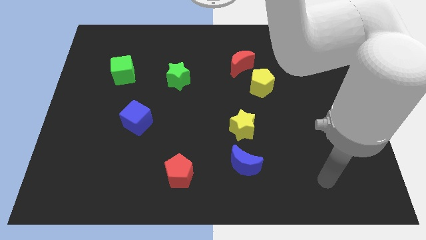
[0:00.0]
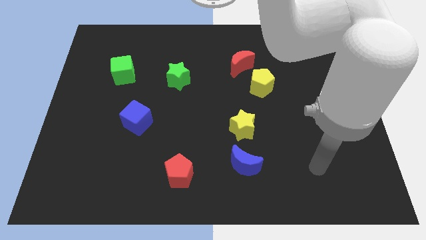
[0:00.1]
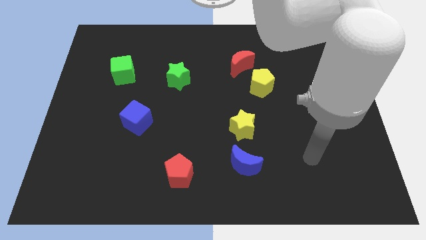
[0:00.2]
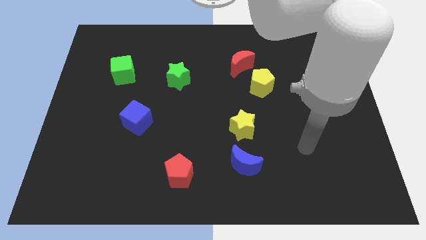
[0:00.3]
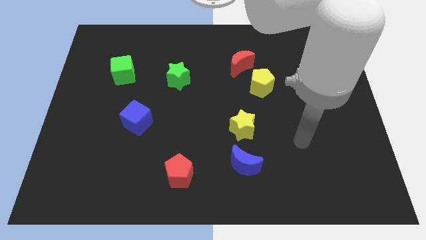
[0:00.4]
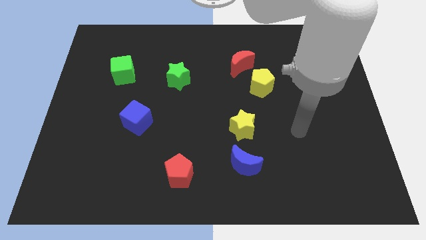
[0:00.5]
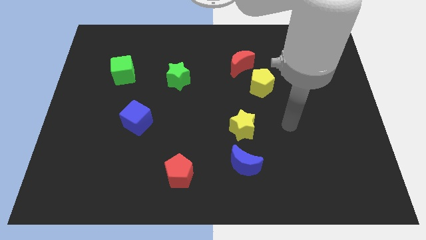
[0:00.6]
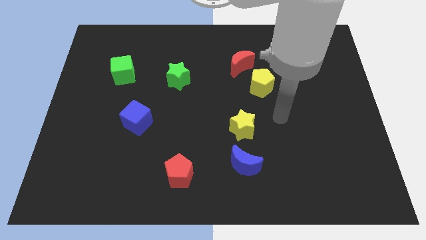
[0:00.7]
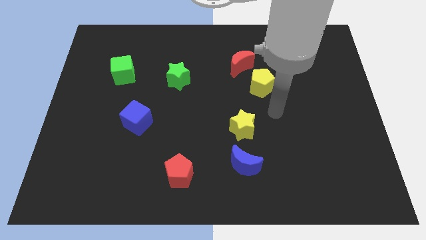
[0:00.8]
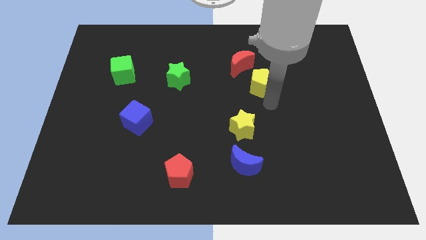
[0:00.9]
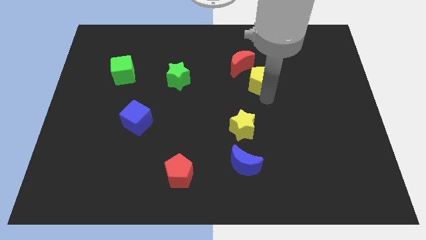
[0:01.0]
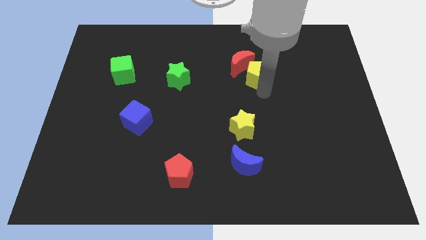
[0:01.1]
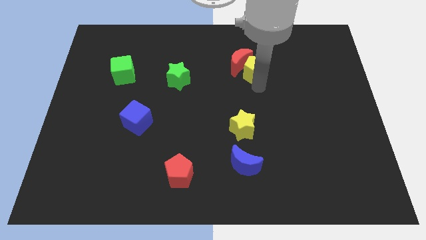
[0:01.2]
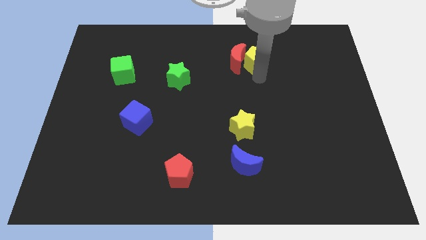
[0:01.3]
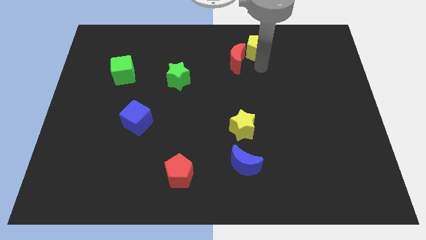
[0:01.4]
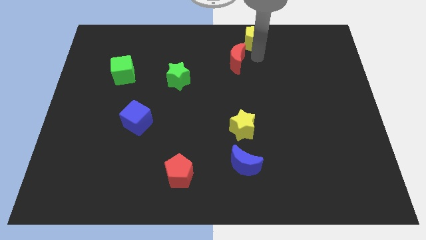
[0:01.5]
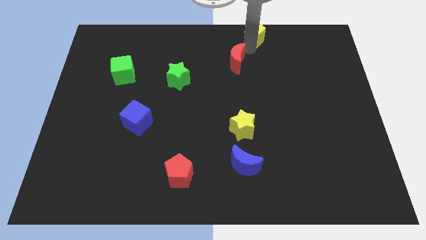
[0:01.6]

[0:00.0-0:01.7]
pull the red moon apart from the yellow pentagon

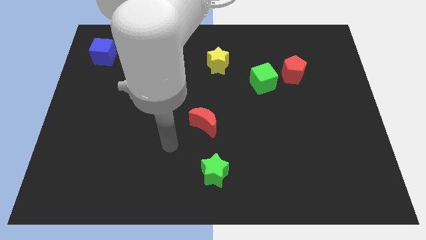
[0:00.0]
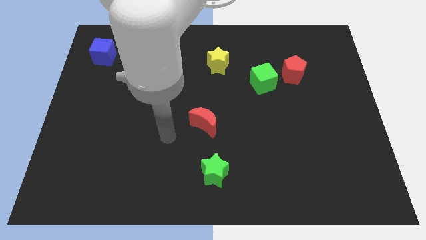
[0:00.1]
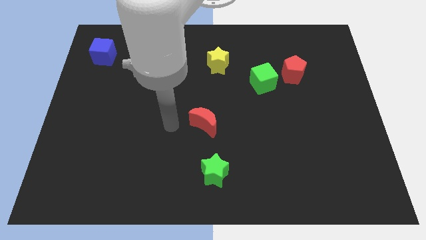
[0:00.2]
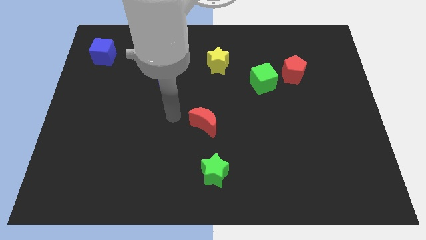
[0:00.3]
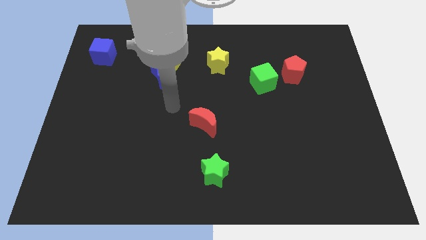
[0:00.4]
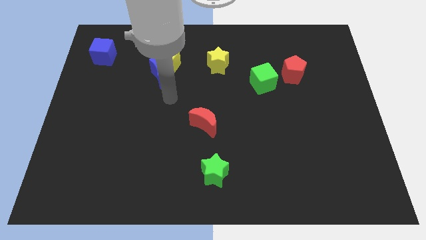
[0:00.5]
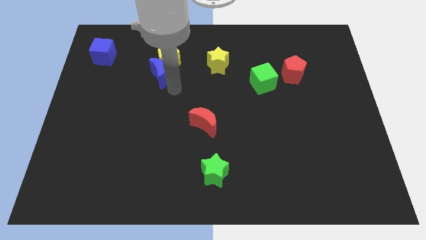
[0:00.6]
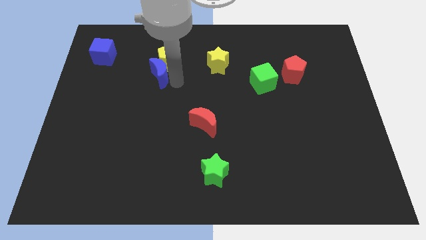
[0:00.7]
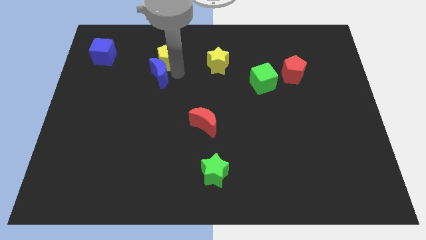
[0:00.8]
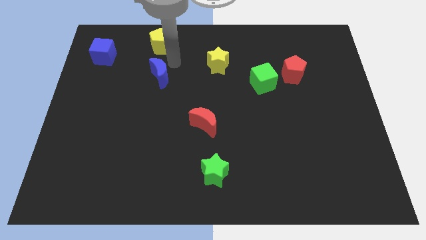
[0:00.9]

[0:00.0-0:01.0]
separate the blue moon from the yellow pentagon

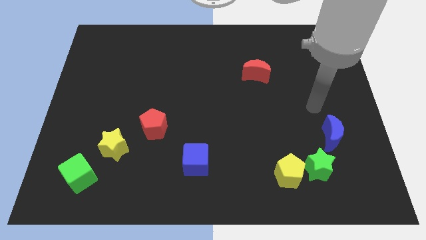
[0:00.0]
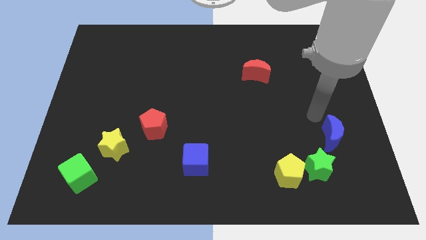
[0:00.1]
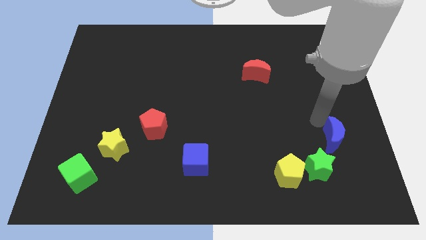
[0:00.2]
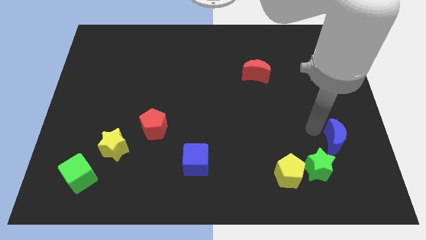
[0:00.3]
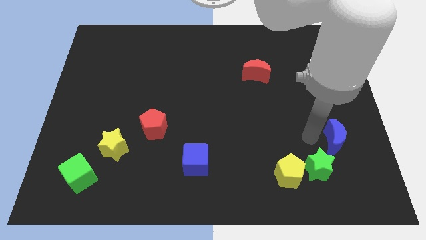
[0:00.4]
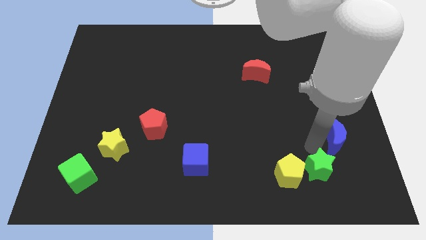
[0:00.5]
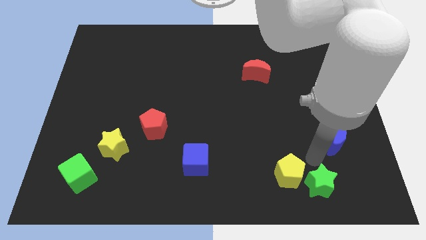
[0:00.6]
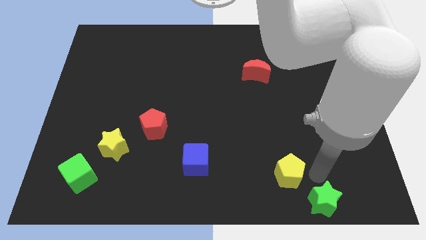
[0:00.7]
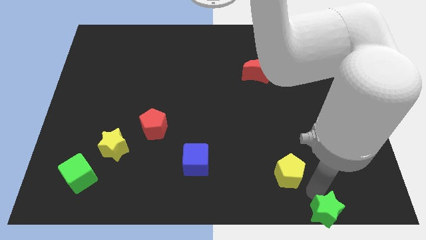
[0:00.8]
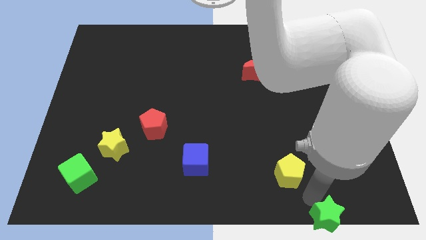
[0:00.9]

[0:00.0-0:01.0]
pull the yellow pentagon apart from the green star

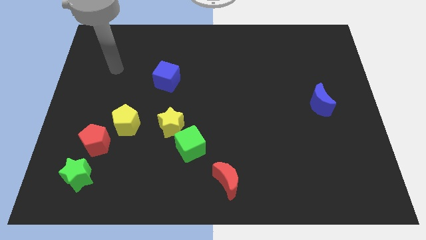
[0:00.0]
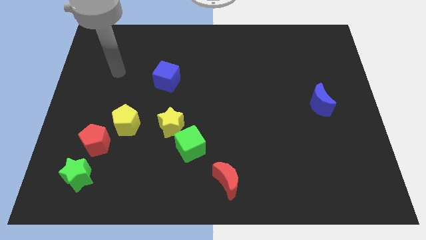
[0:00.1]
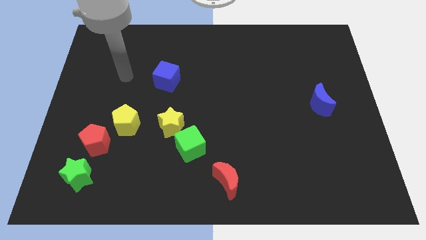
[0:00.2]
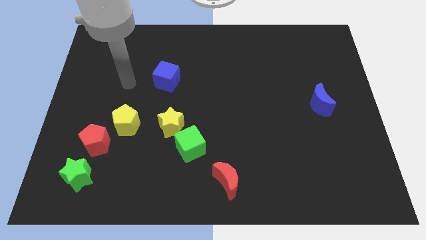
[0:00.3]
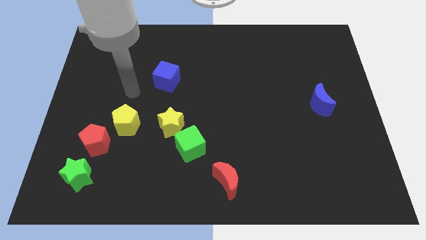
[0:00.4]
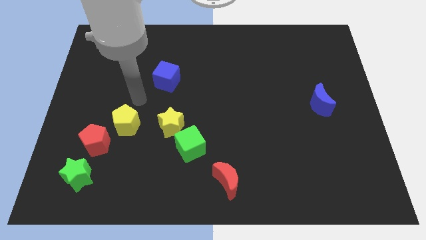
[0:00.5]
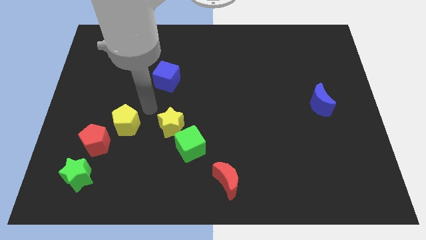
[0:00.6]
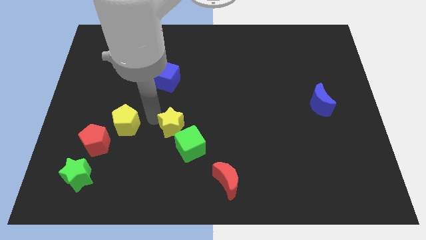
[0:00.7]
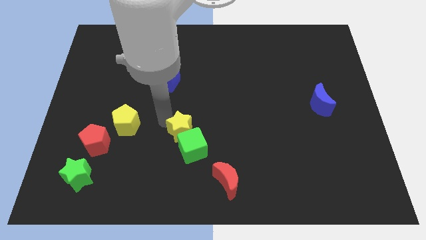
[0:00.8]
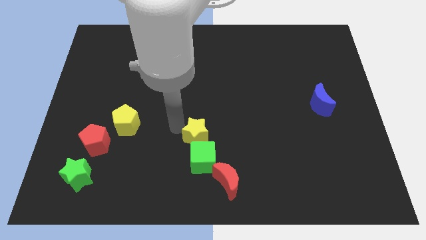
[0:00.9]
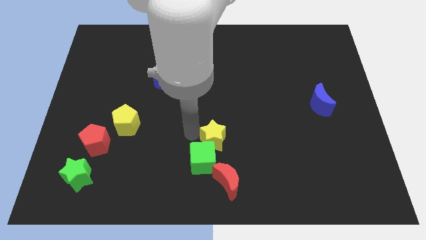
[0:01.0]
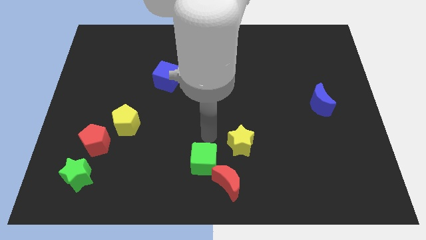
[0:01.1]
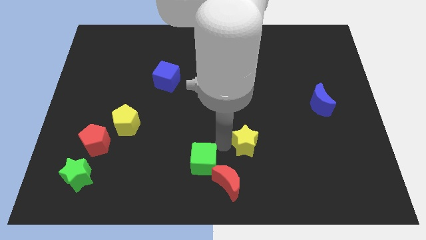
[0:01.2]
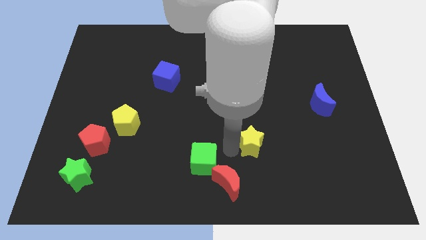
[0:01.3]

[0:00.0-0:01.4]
separate the green cube from the yellow star

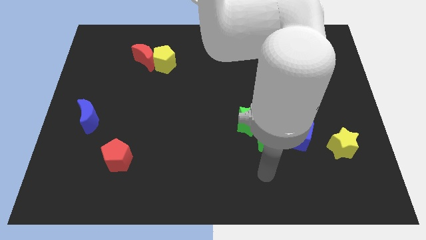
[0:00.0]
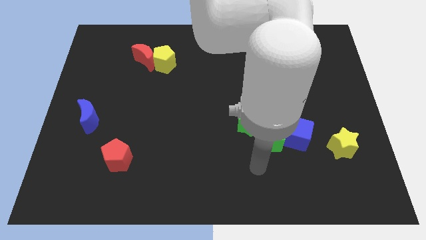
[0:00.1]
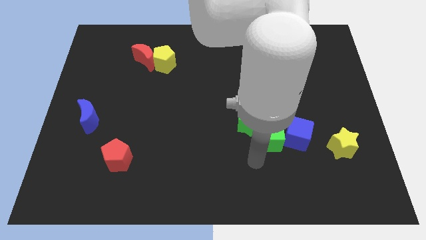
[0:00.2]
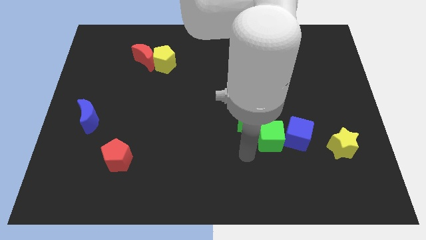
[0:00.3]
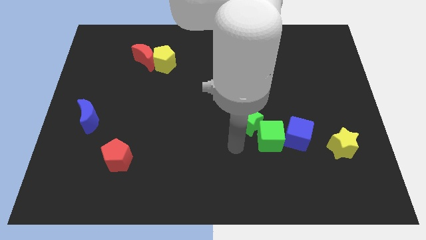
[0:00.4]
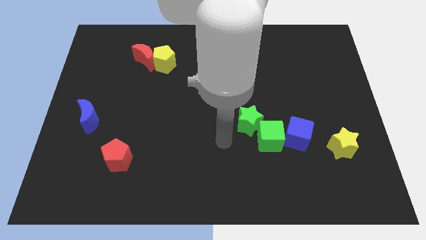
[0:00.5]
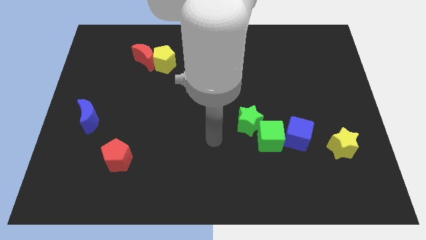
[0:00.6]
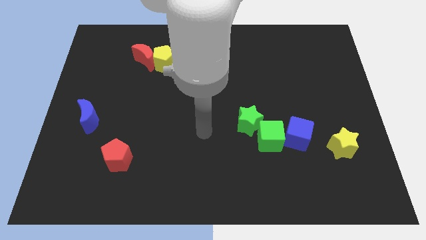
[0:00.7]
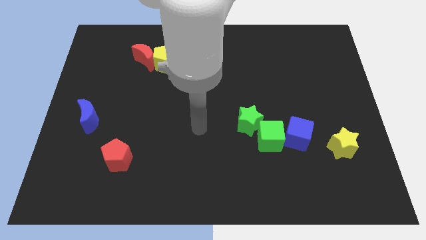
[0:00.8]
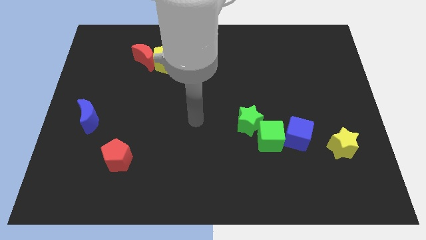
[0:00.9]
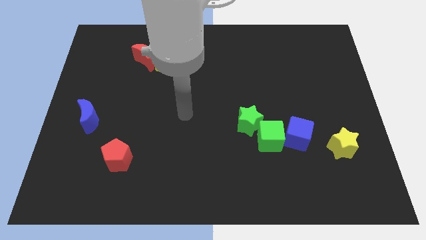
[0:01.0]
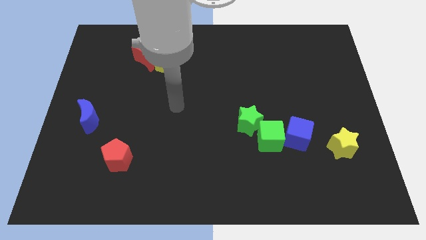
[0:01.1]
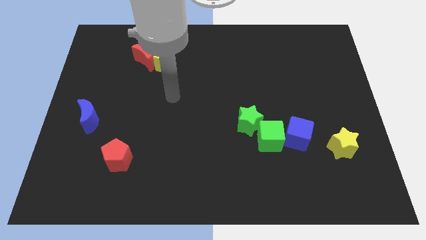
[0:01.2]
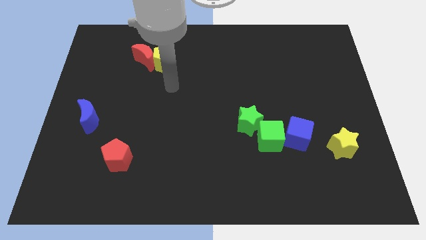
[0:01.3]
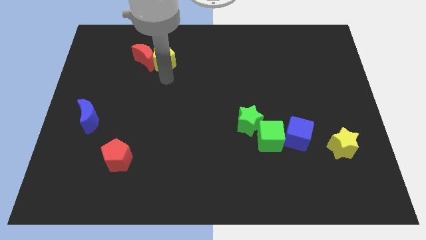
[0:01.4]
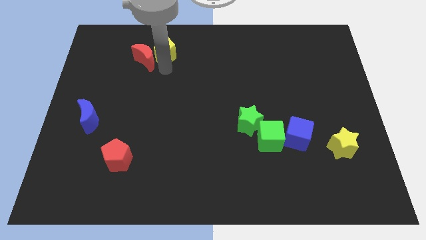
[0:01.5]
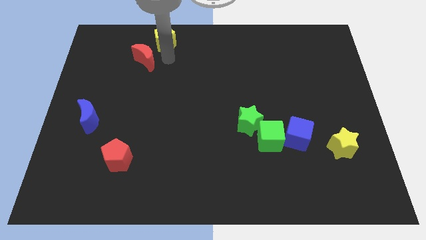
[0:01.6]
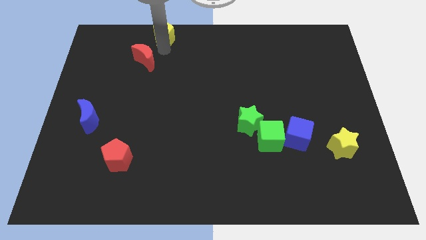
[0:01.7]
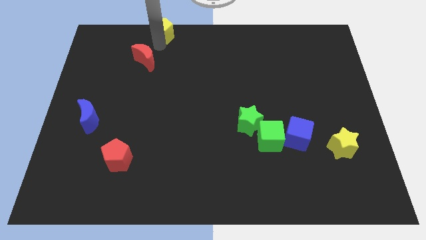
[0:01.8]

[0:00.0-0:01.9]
move the red moon away from the yellow pentagon

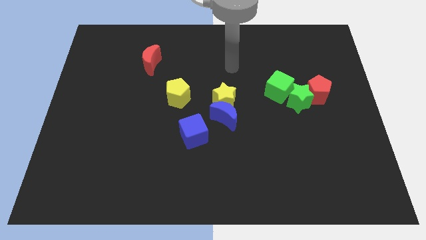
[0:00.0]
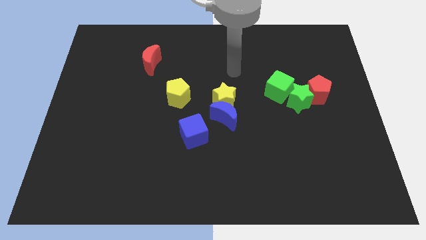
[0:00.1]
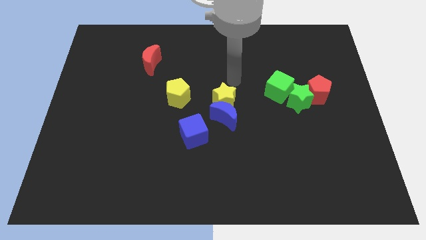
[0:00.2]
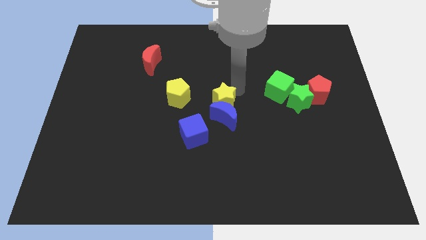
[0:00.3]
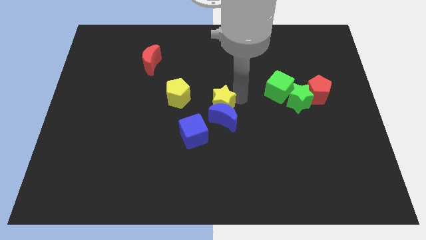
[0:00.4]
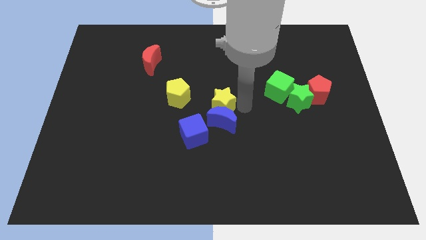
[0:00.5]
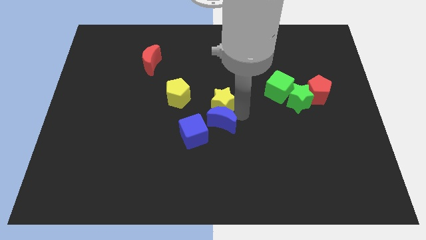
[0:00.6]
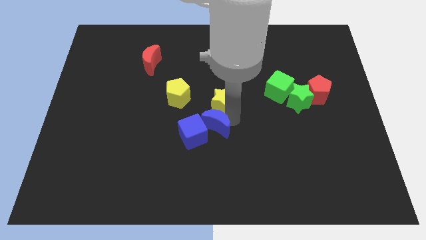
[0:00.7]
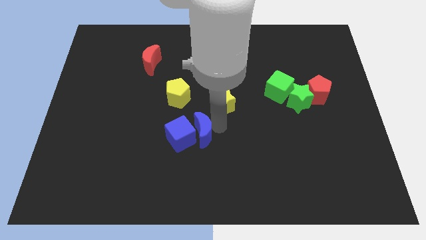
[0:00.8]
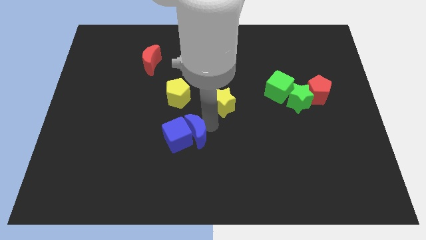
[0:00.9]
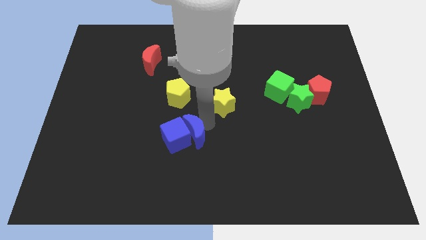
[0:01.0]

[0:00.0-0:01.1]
pull the yellow star apart from the blue moon

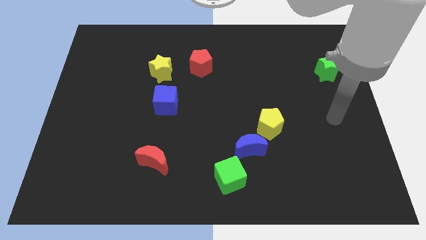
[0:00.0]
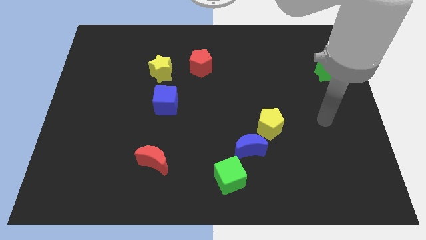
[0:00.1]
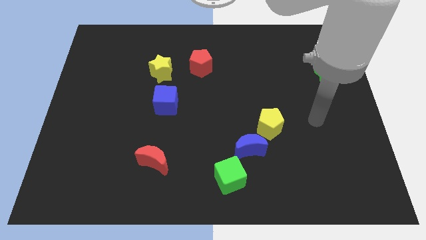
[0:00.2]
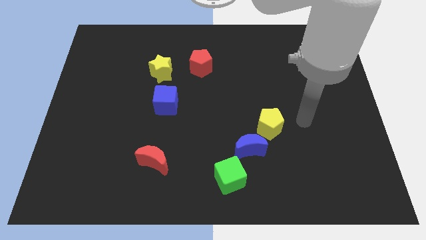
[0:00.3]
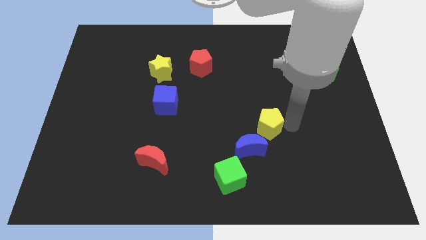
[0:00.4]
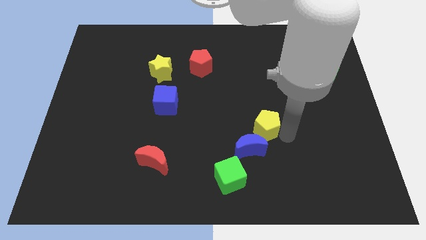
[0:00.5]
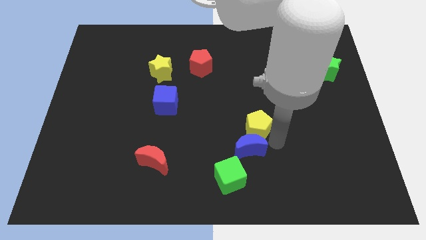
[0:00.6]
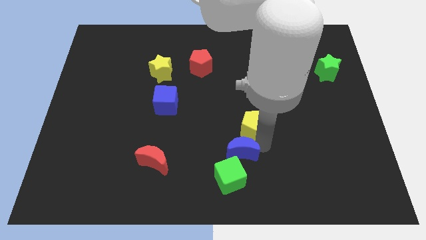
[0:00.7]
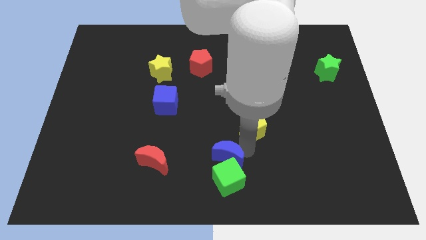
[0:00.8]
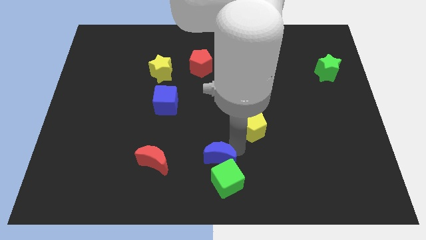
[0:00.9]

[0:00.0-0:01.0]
move the yellow pentagon away from the blue moon
